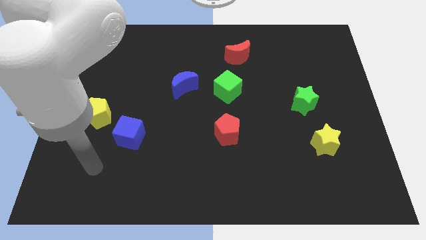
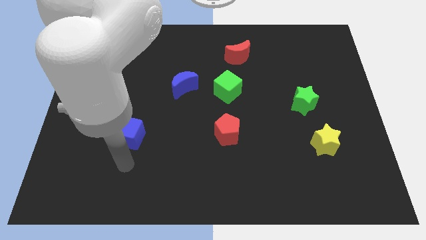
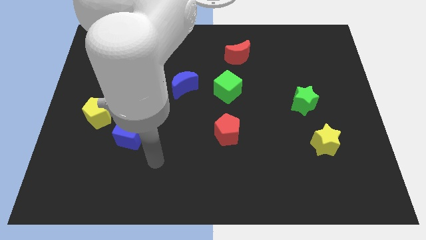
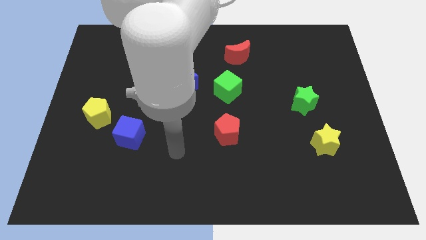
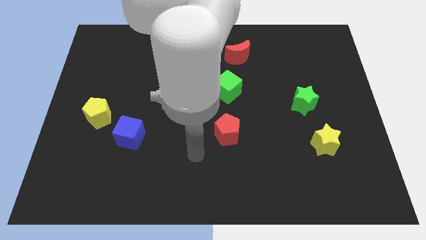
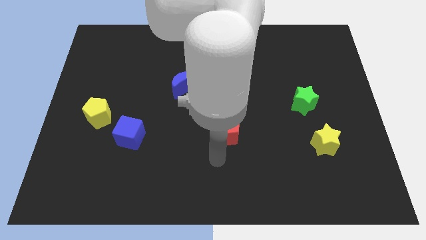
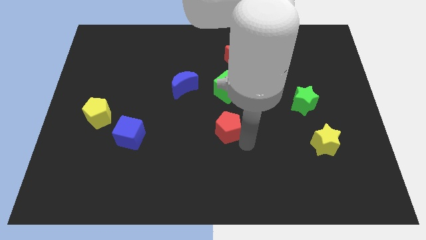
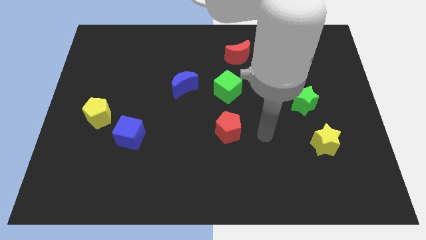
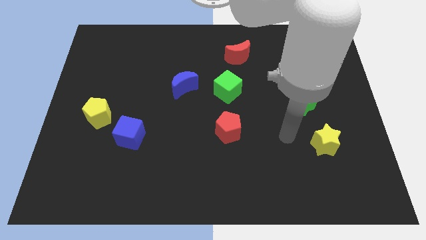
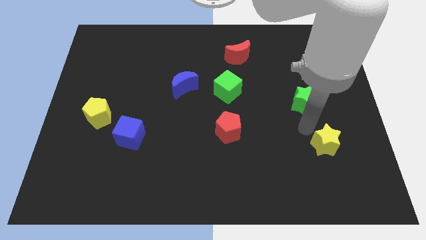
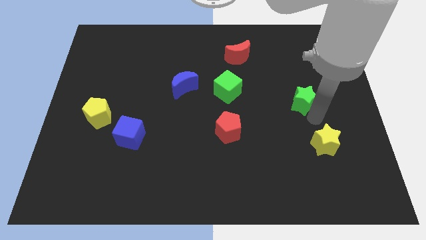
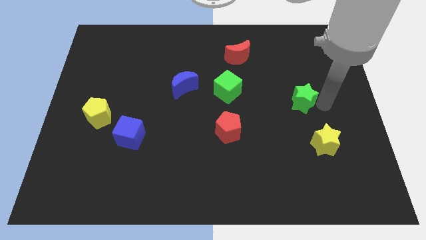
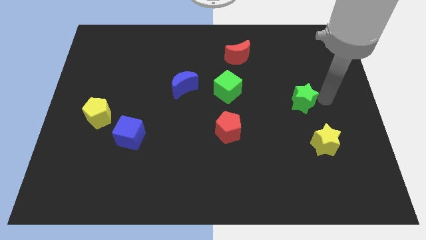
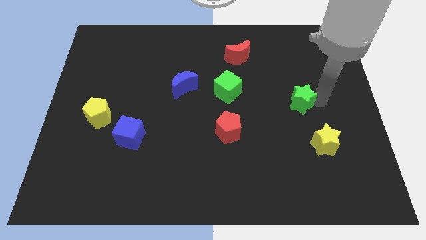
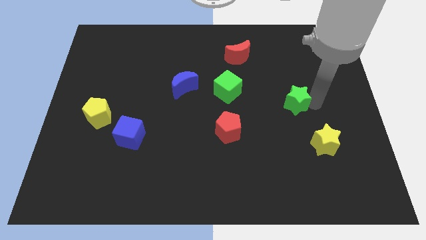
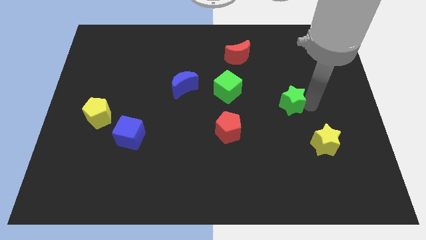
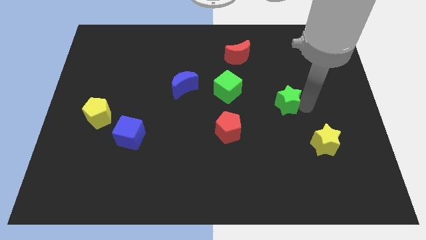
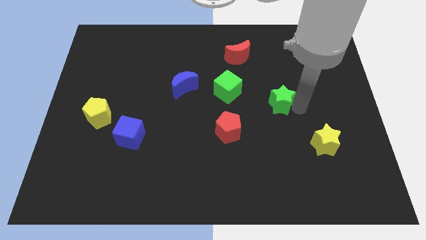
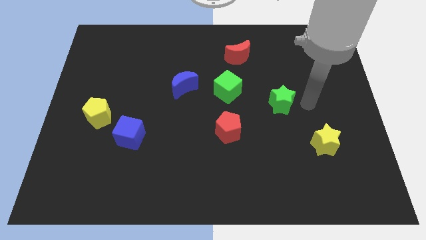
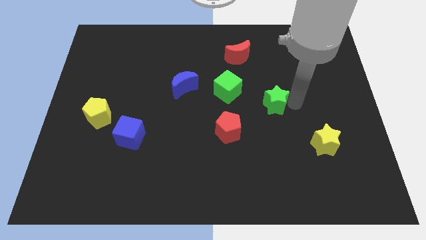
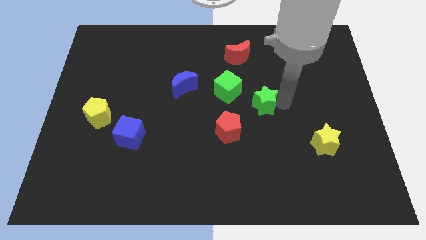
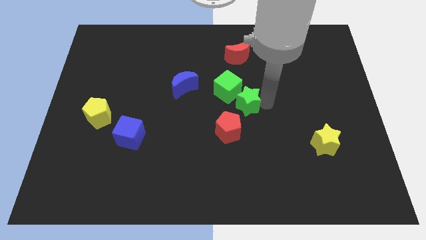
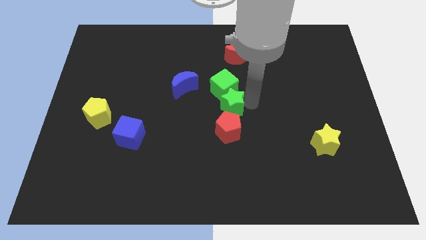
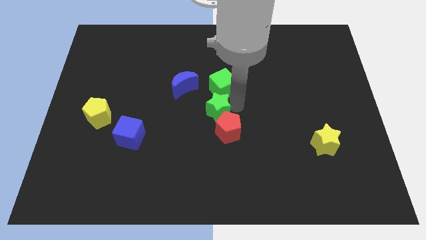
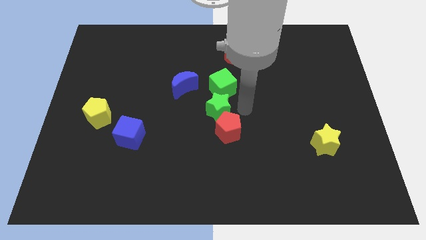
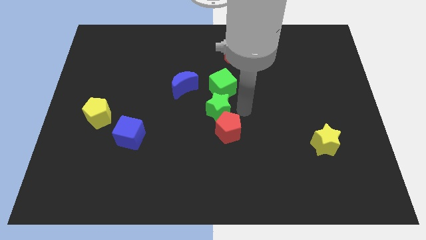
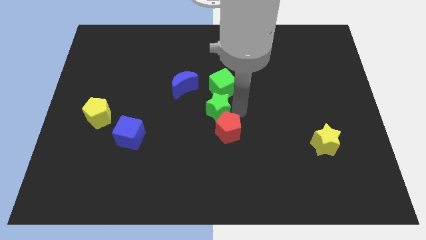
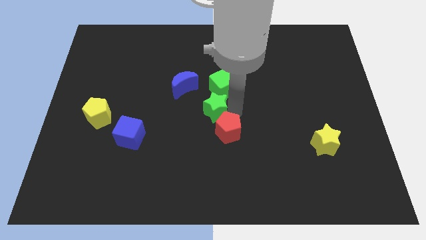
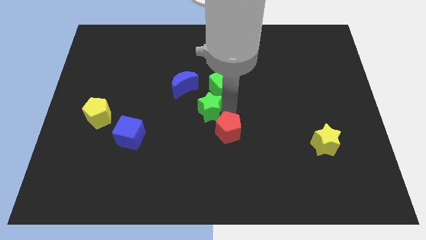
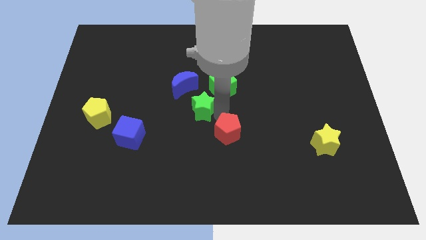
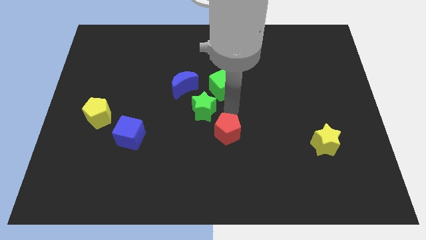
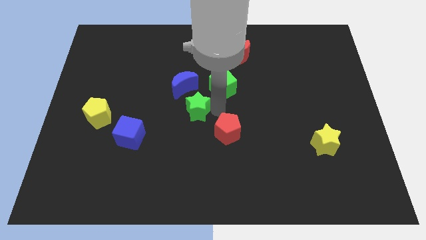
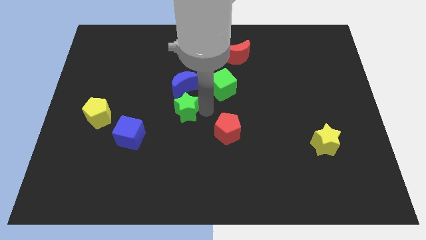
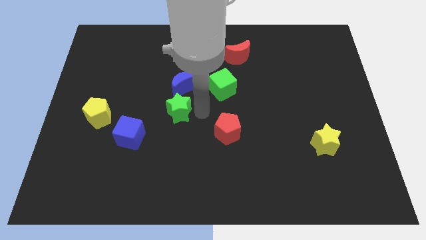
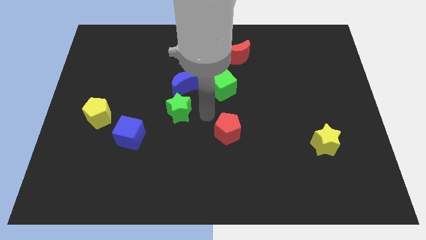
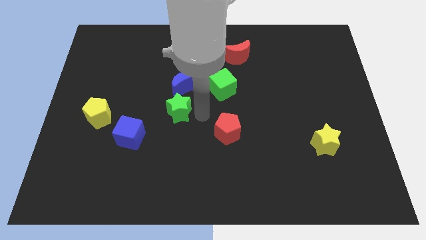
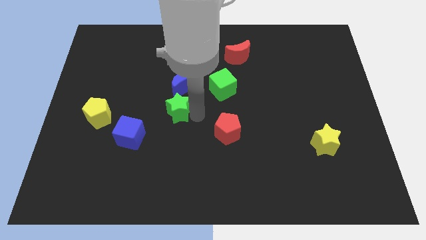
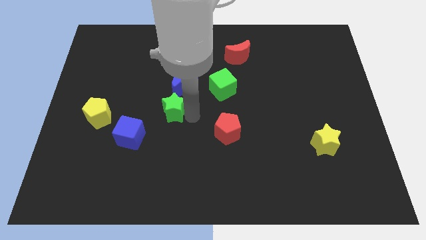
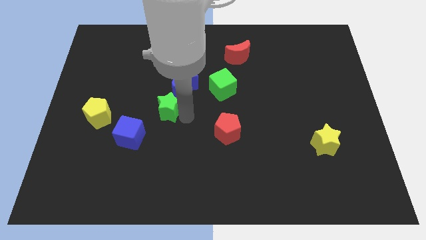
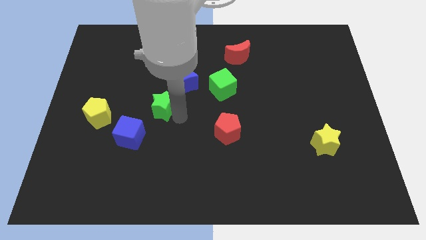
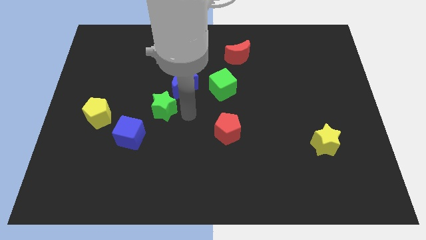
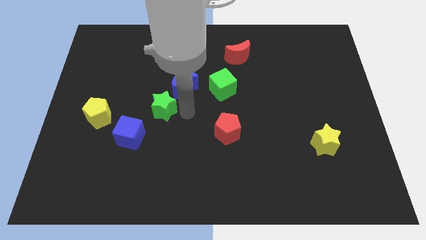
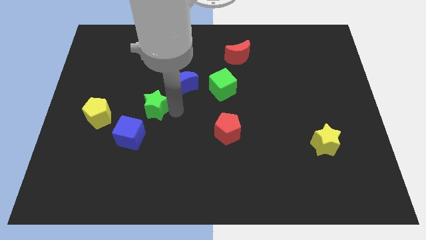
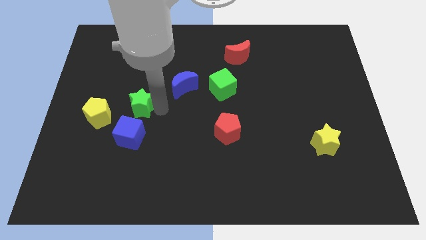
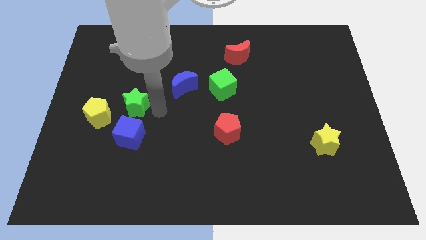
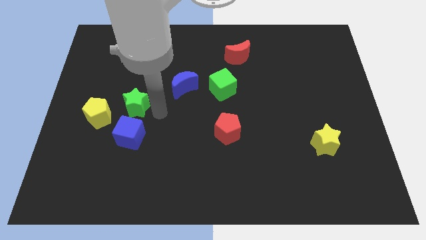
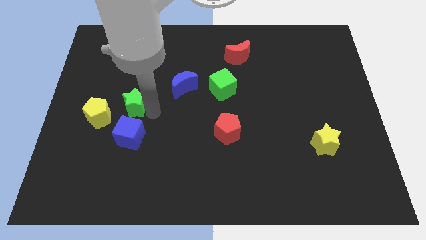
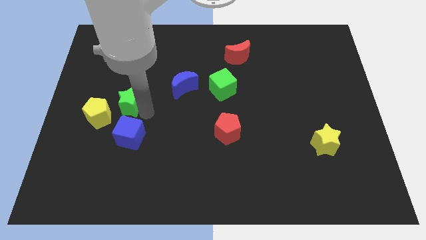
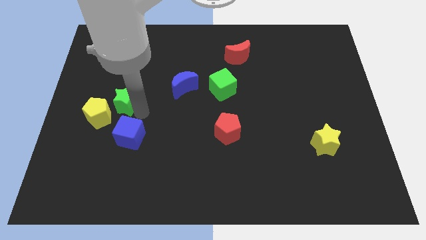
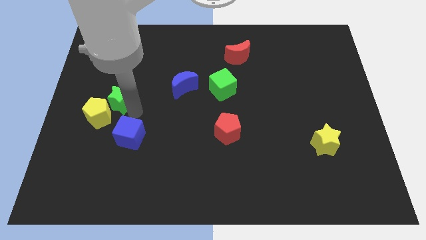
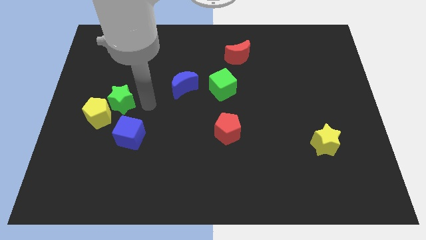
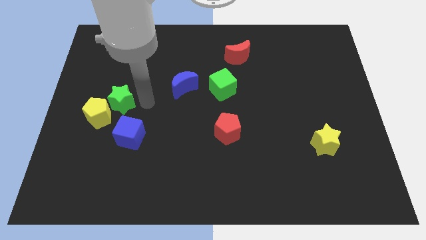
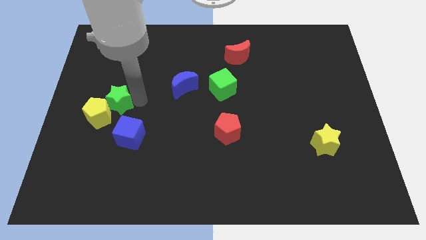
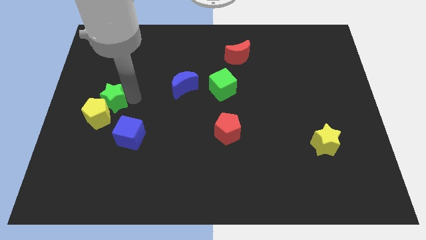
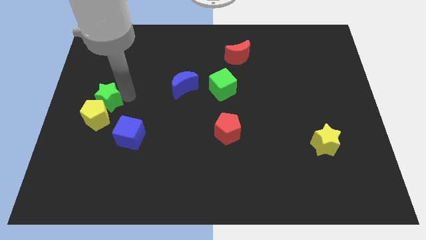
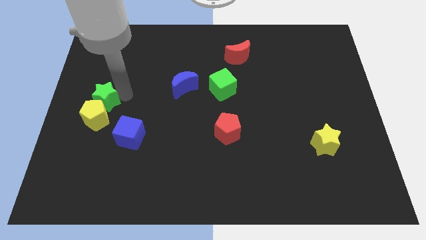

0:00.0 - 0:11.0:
push the green star to the left side

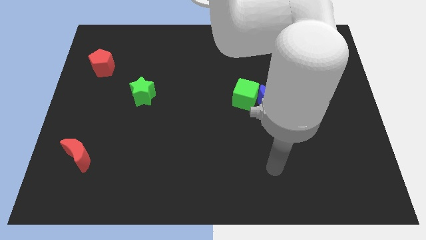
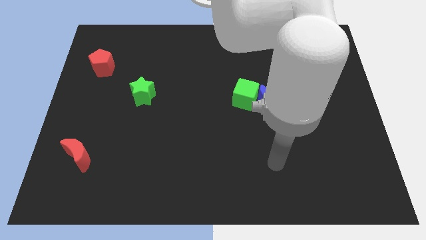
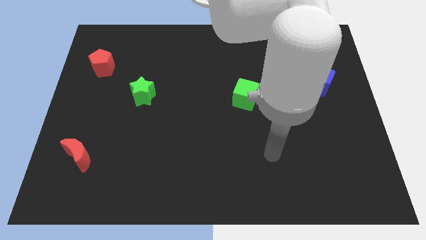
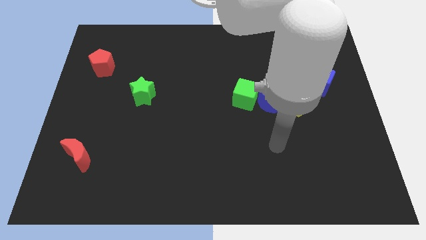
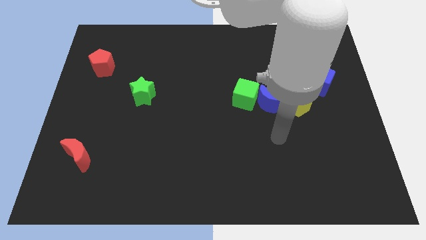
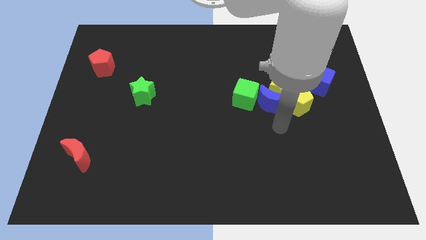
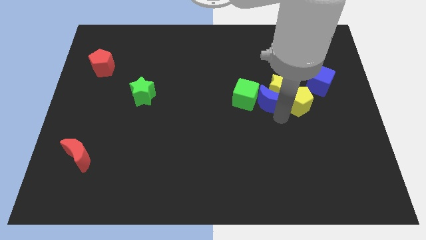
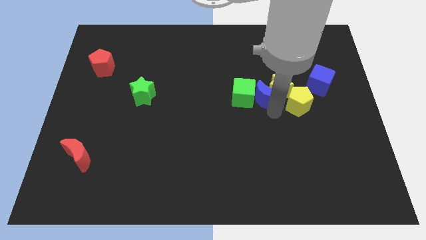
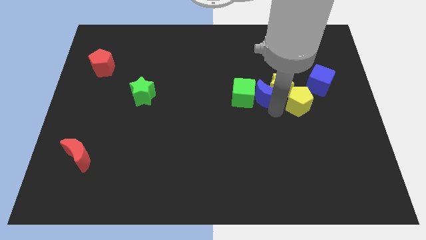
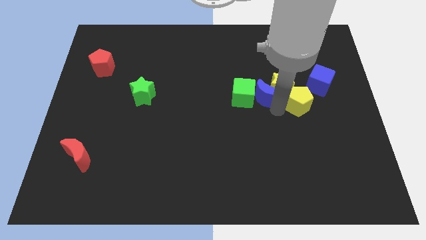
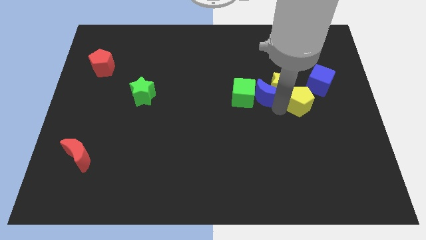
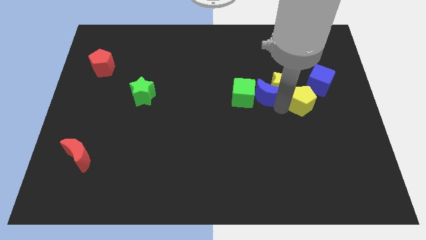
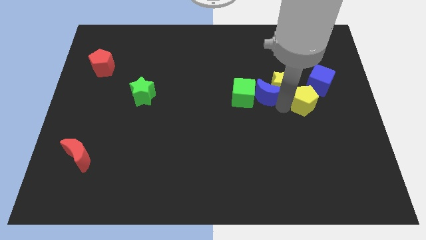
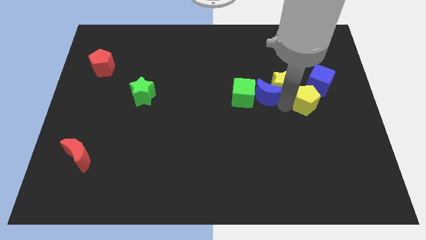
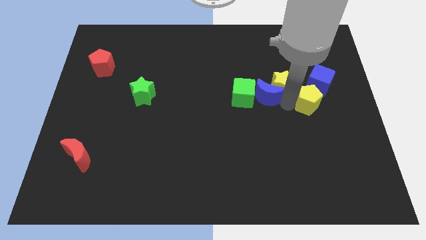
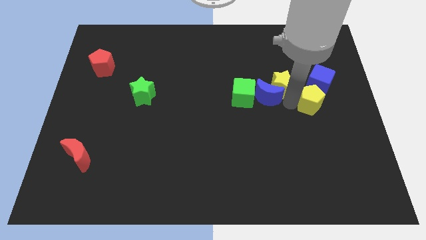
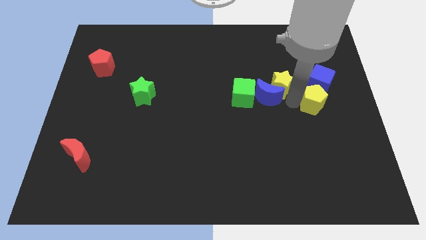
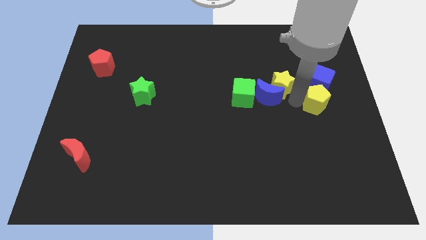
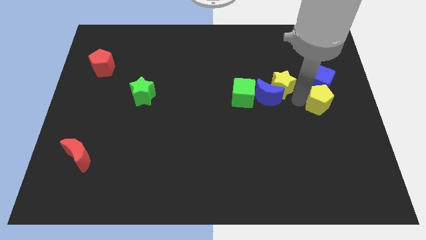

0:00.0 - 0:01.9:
push the yellow pentagon to the right side

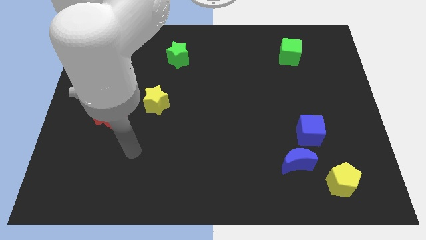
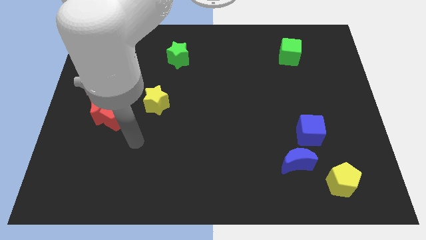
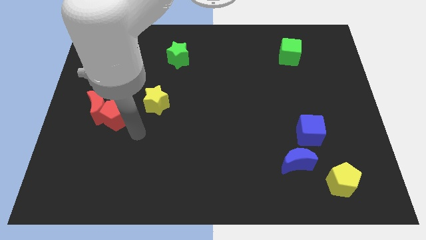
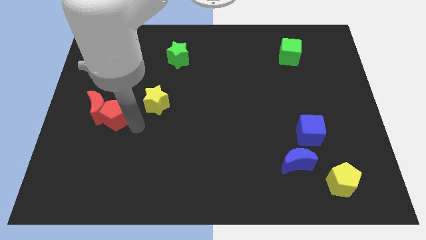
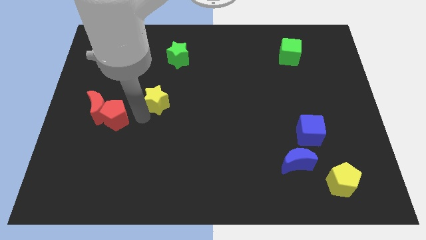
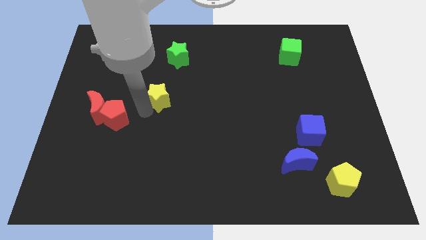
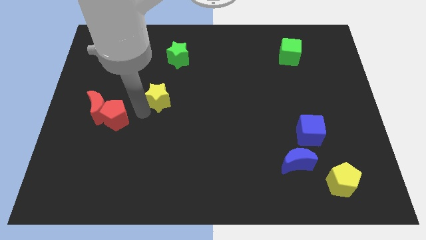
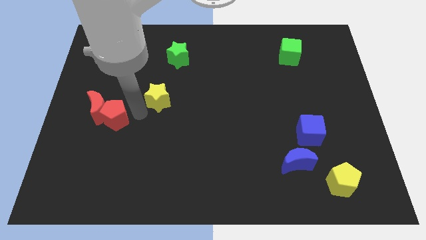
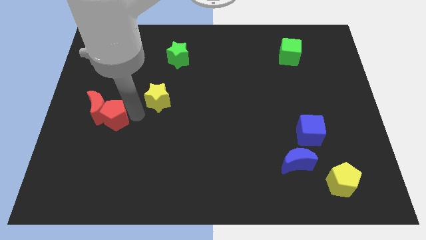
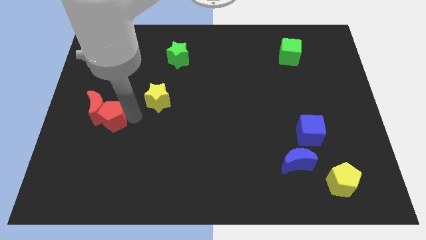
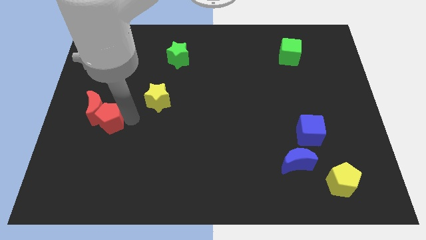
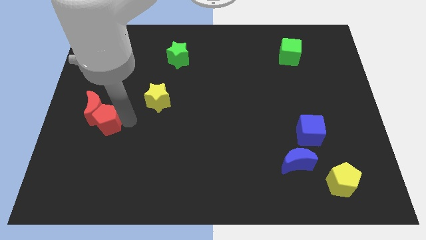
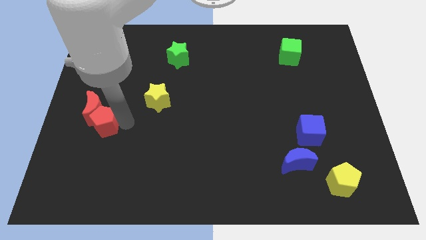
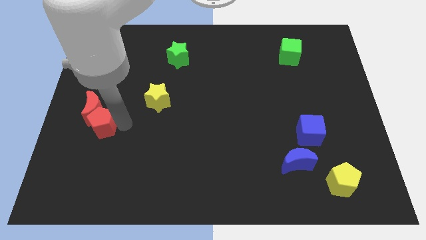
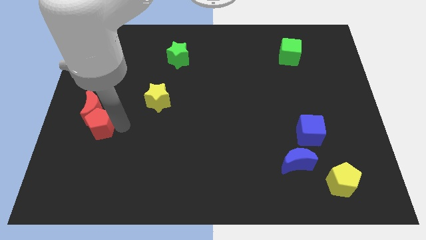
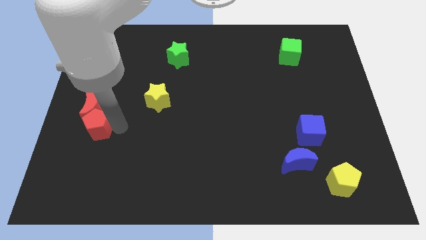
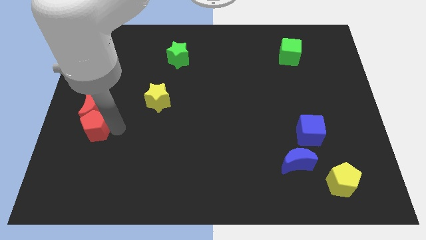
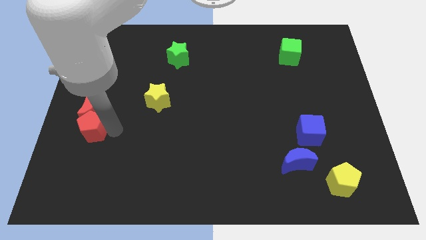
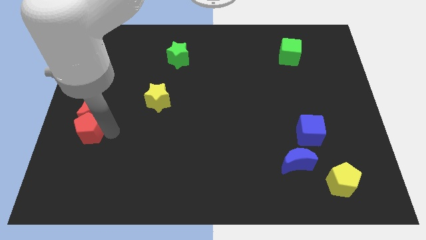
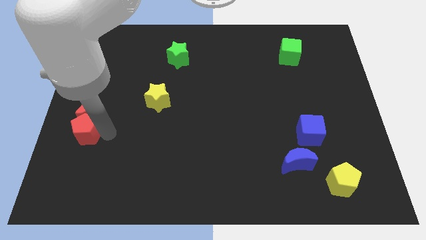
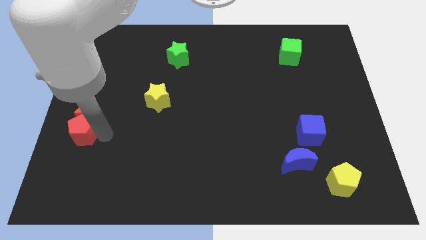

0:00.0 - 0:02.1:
slide the red pentagon to the left side of the board
